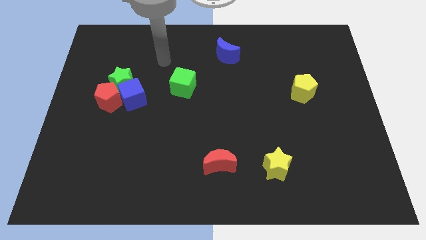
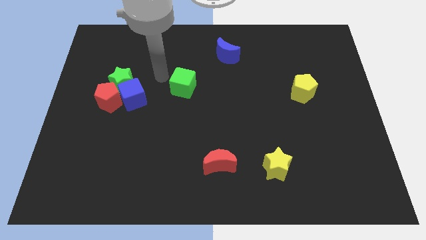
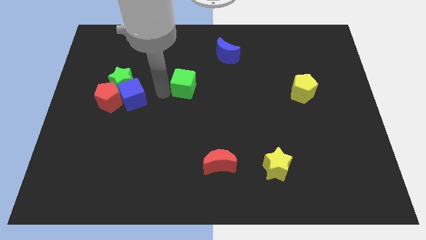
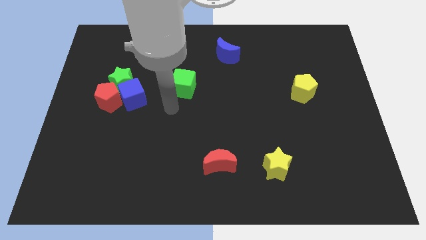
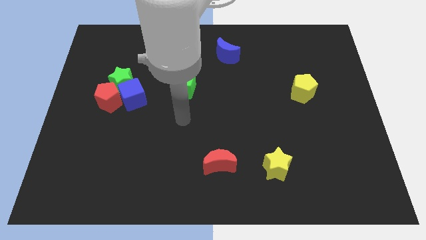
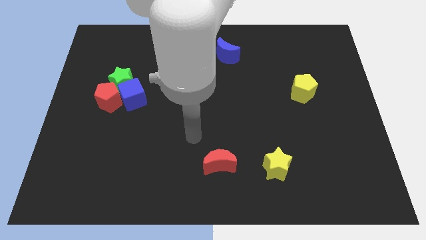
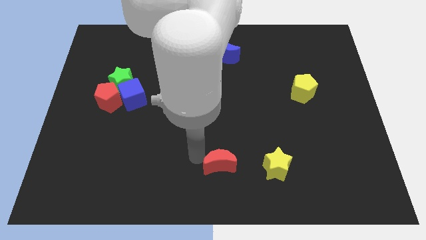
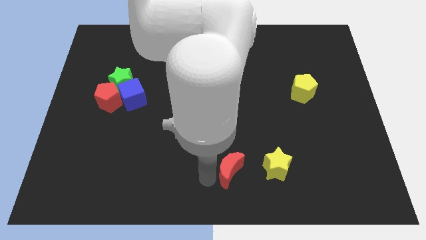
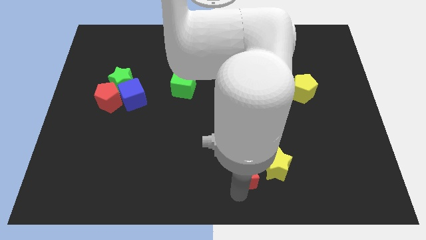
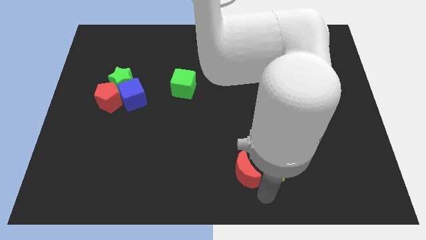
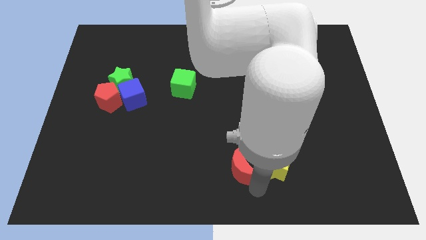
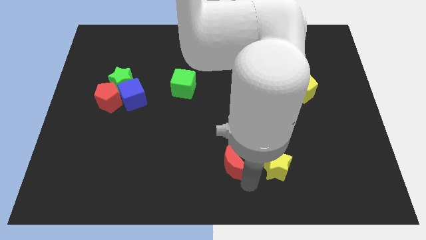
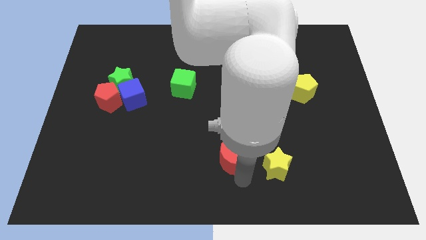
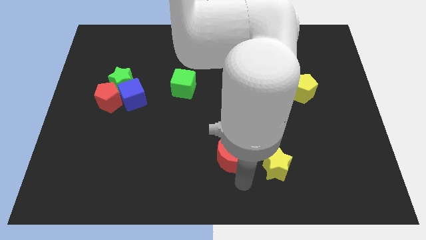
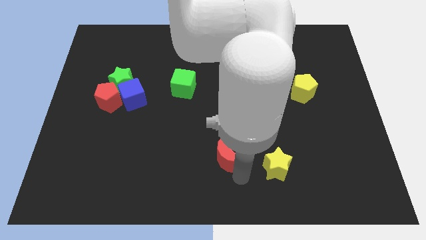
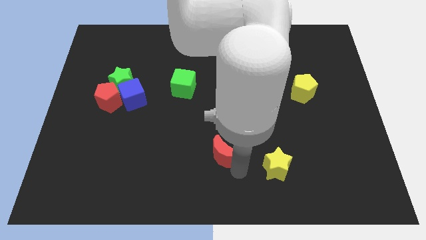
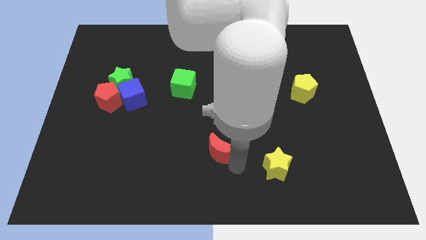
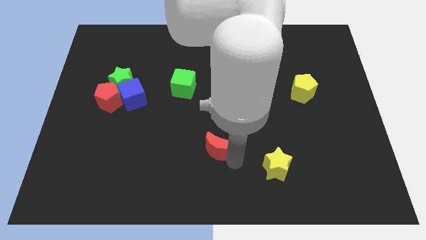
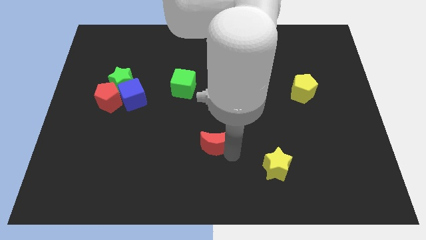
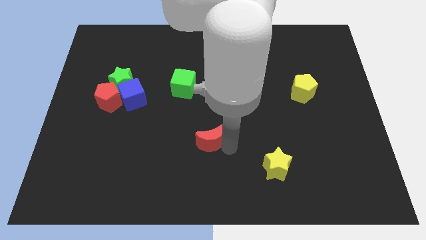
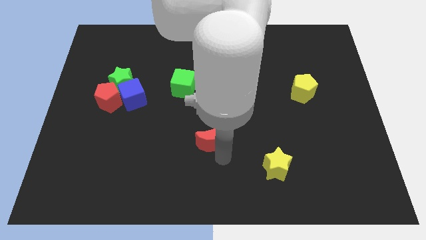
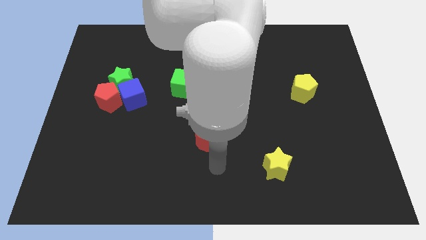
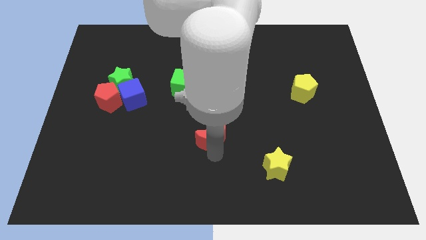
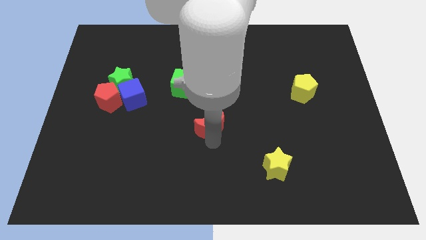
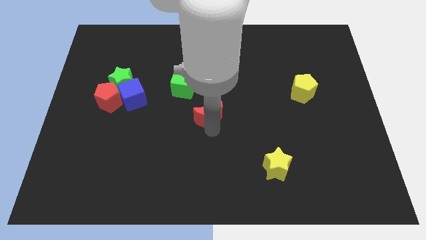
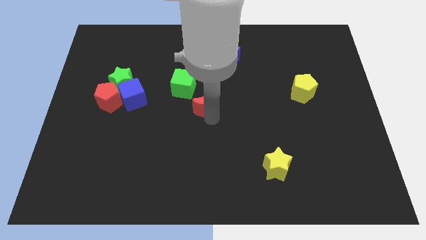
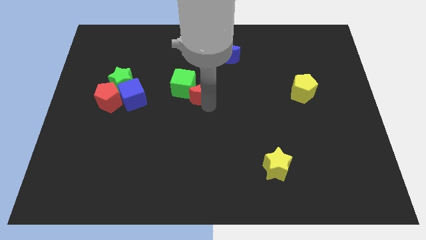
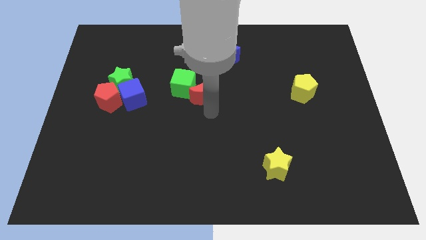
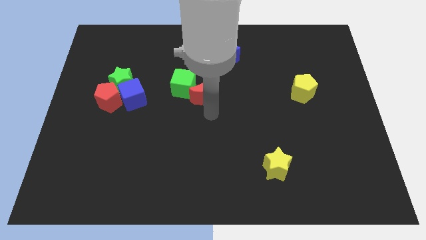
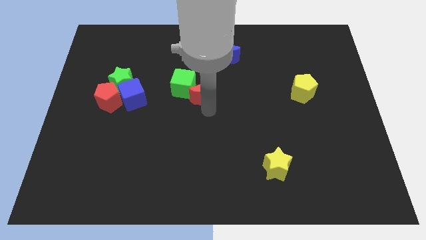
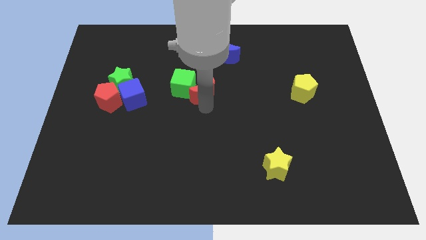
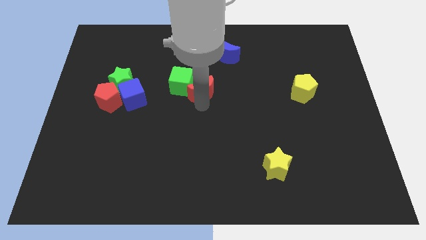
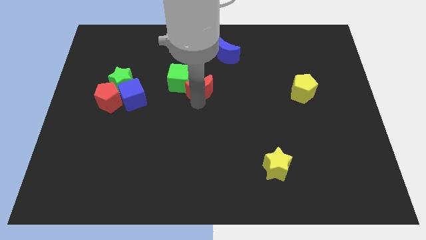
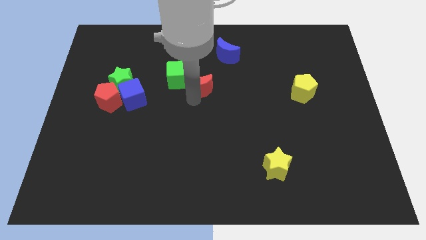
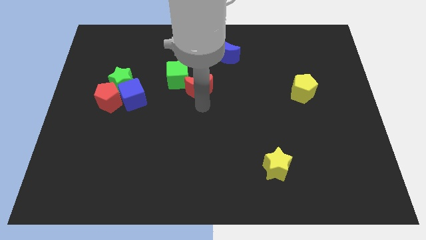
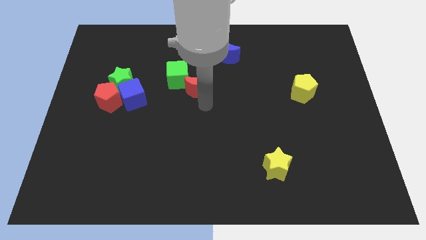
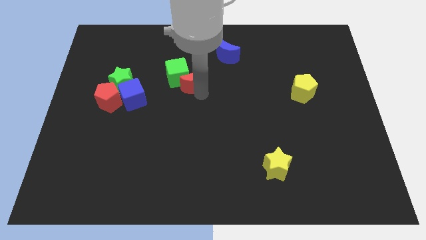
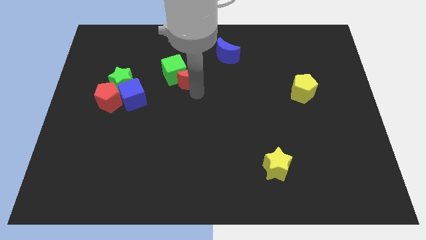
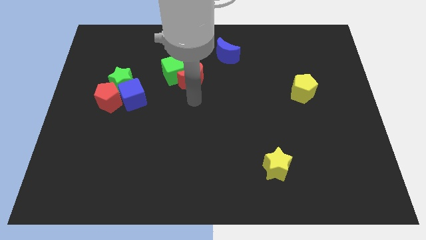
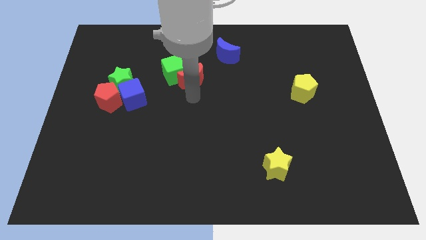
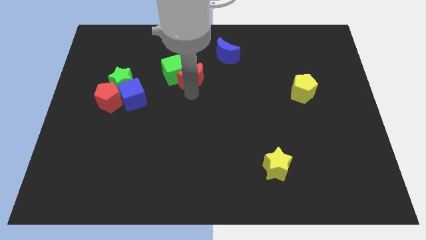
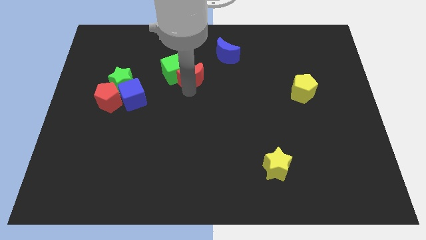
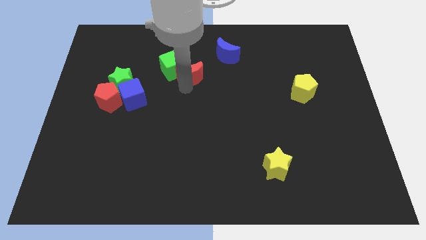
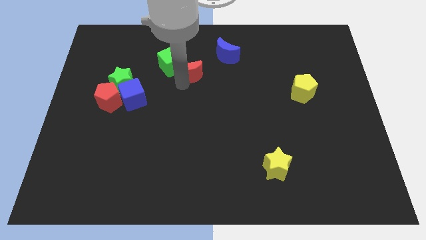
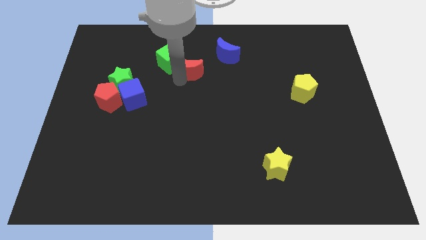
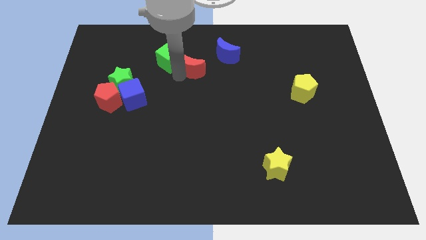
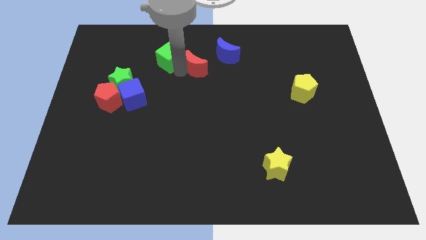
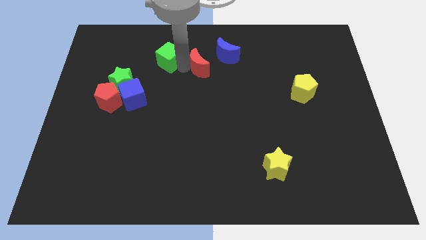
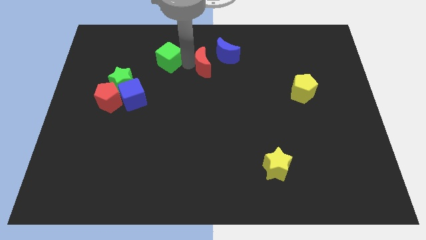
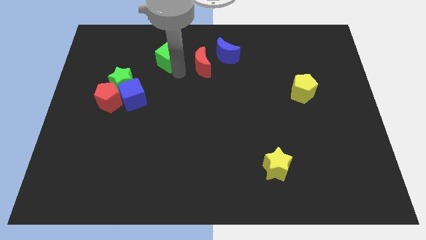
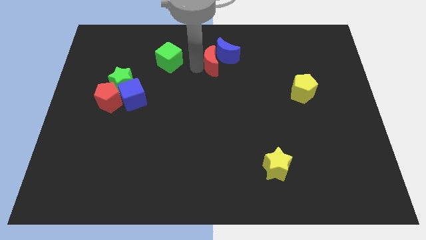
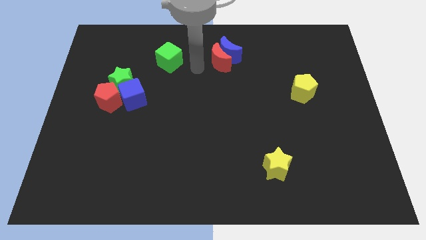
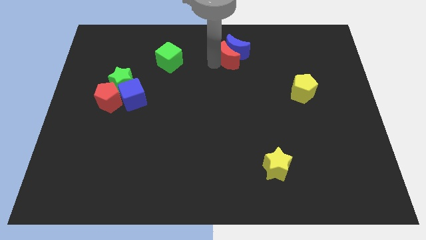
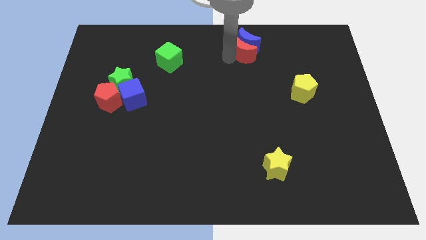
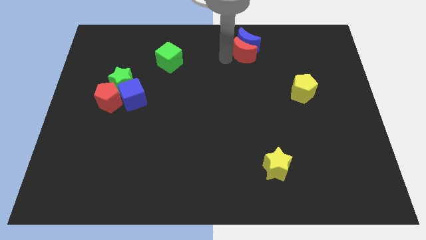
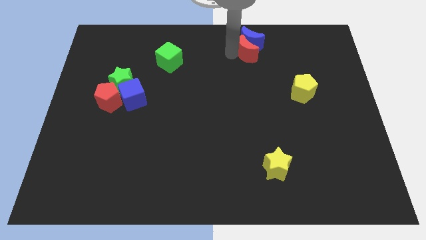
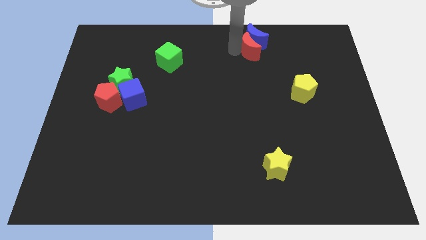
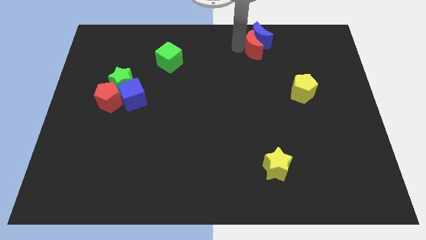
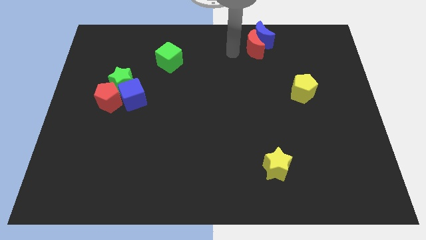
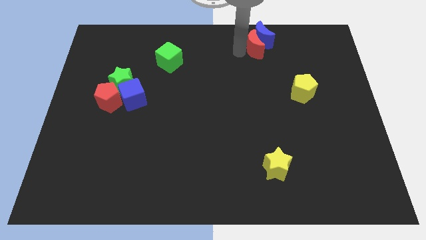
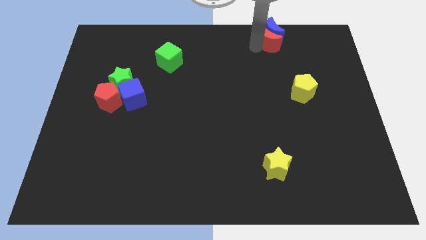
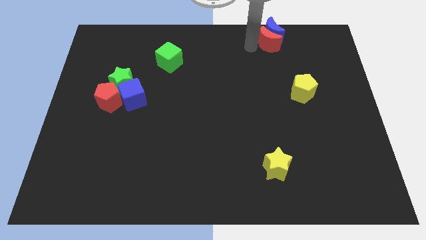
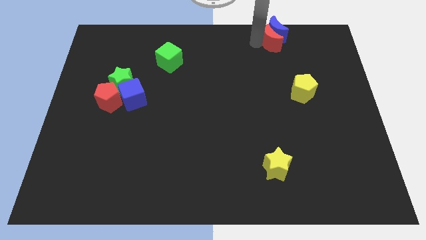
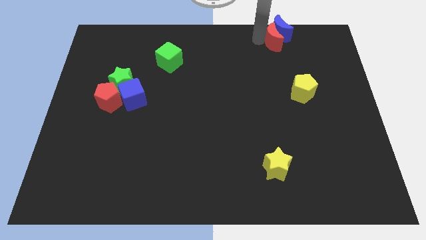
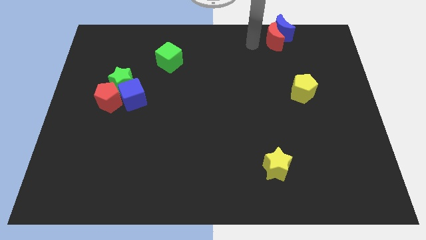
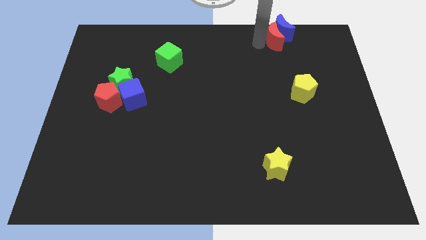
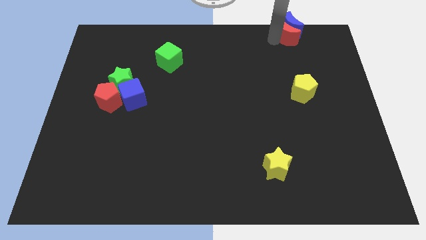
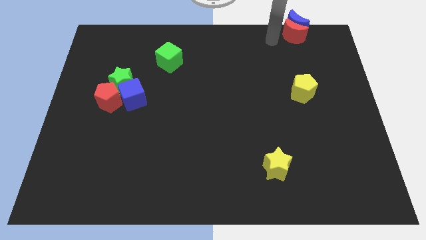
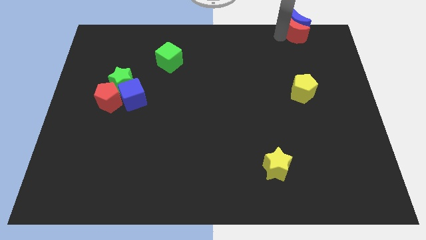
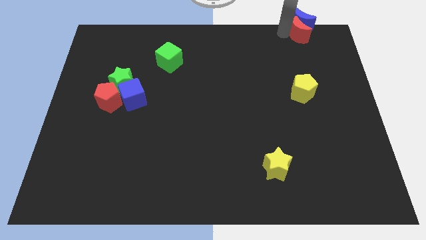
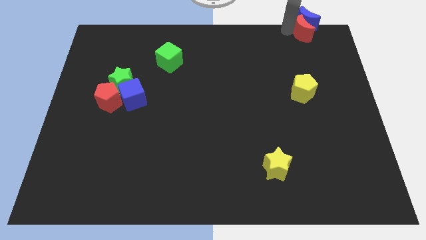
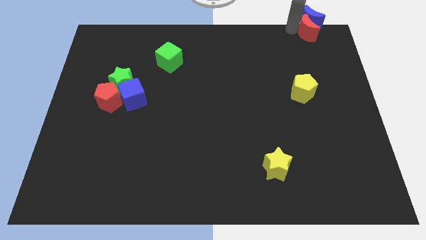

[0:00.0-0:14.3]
slide the red moon to the top right corner
